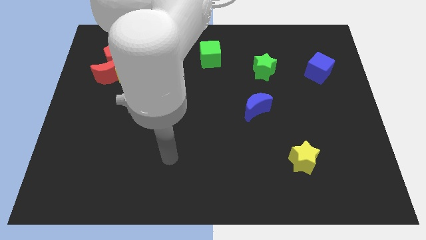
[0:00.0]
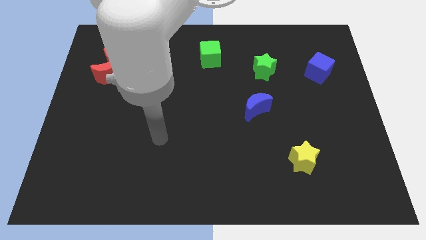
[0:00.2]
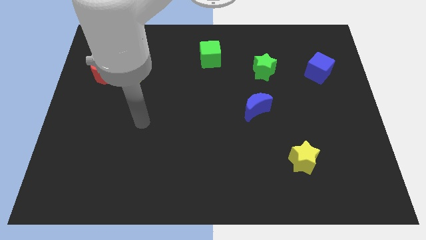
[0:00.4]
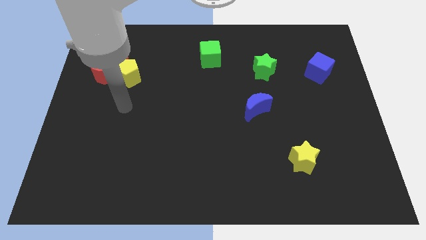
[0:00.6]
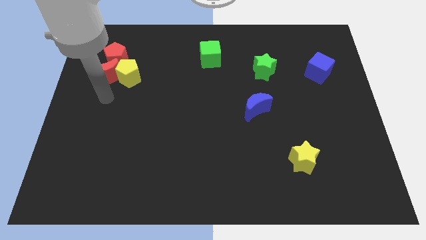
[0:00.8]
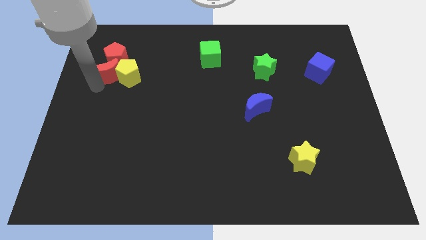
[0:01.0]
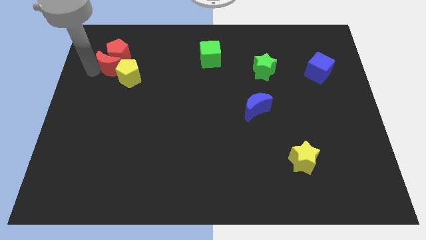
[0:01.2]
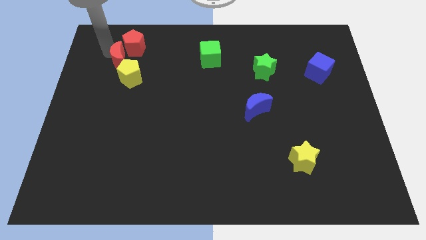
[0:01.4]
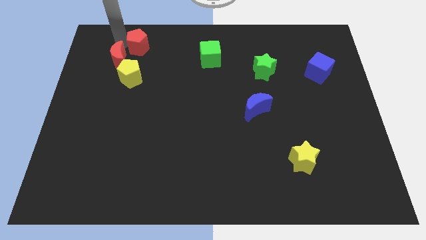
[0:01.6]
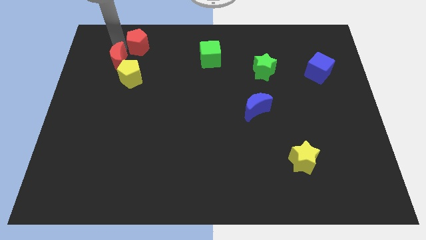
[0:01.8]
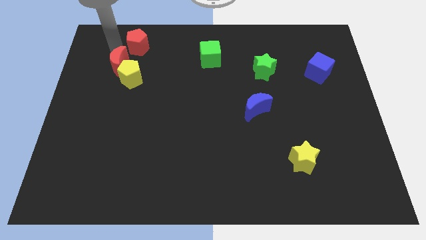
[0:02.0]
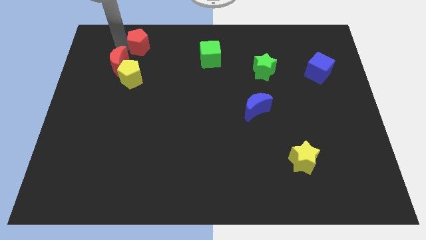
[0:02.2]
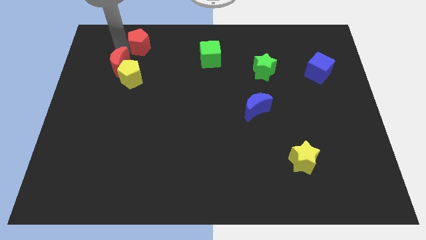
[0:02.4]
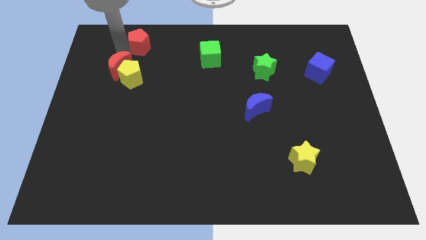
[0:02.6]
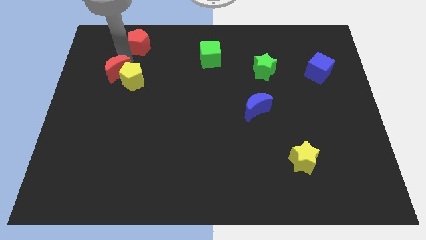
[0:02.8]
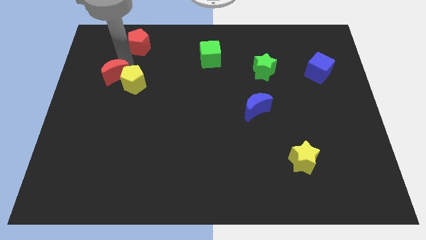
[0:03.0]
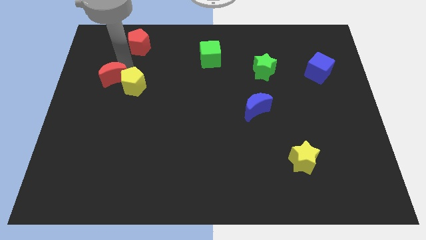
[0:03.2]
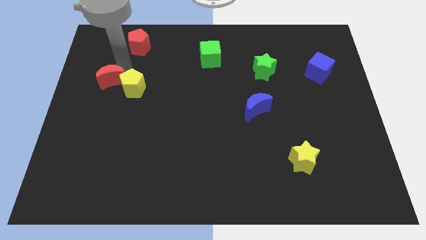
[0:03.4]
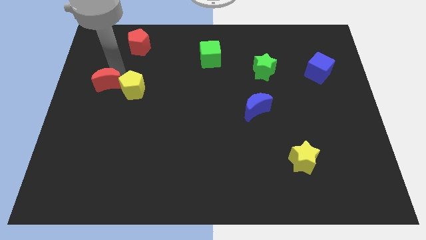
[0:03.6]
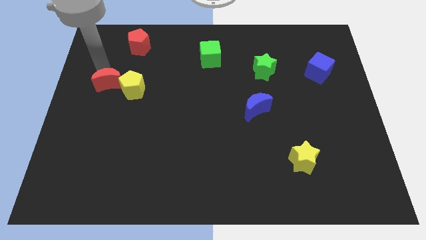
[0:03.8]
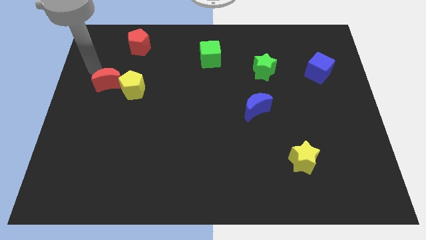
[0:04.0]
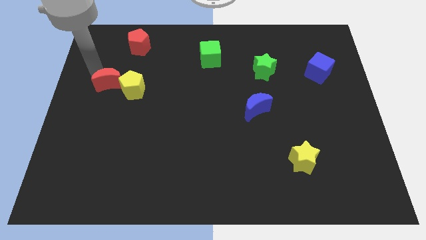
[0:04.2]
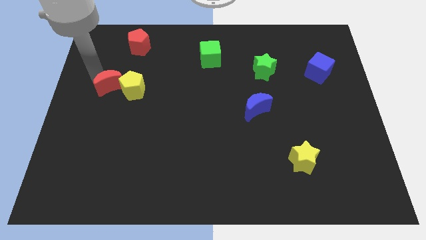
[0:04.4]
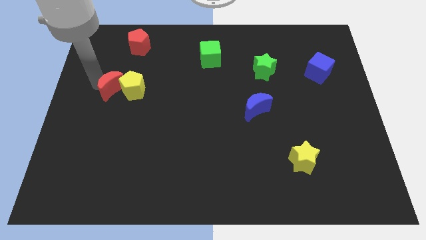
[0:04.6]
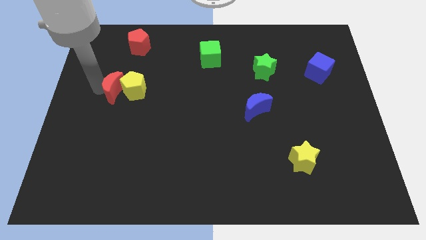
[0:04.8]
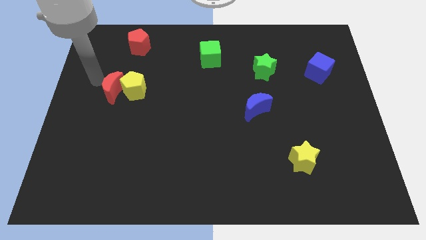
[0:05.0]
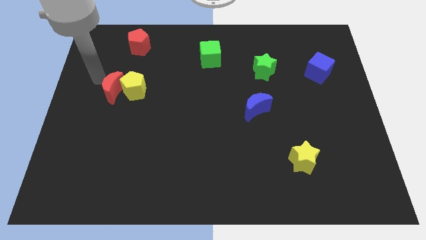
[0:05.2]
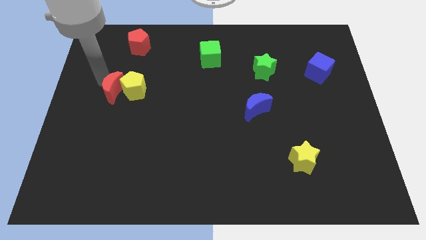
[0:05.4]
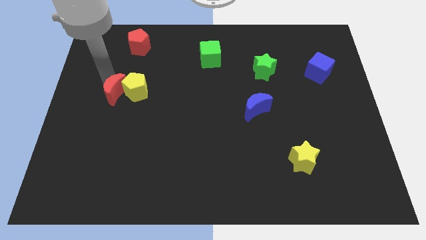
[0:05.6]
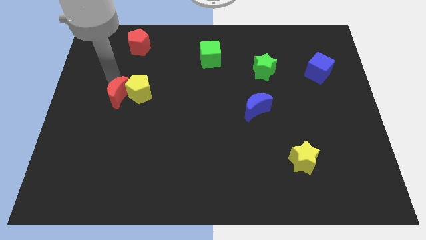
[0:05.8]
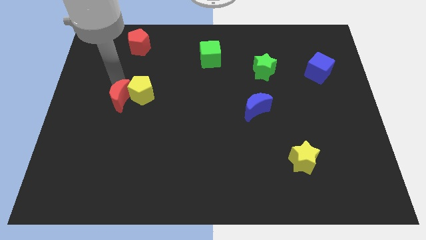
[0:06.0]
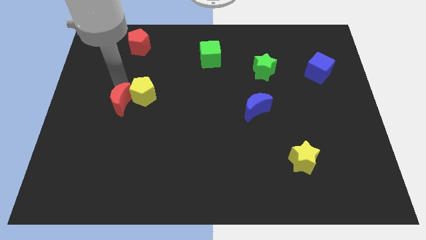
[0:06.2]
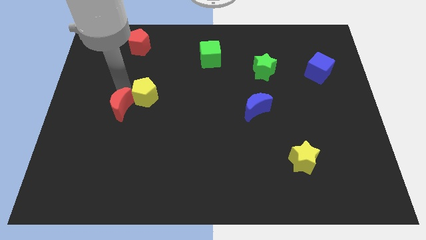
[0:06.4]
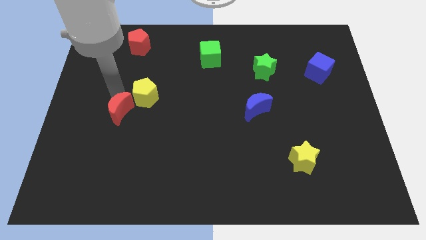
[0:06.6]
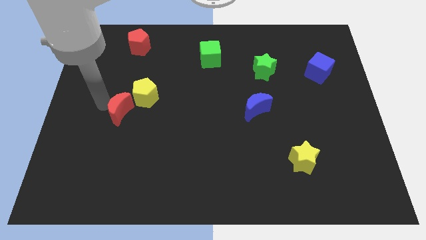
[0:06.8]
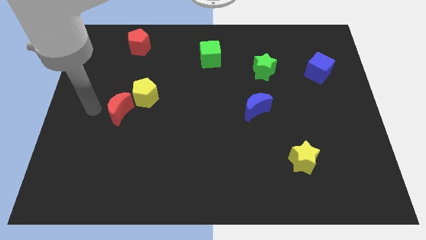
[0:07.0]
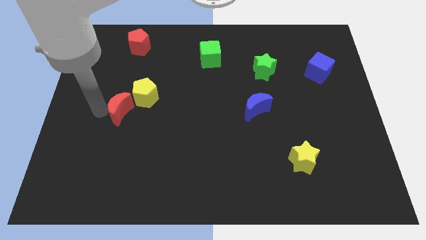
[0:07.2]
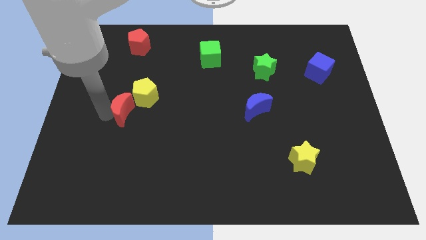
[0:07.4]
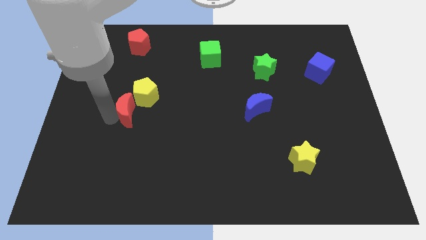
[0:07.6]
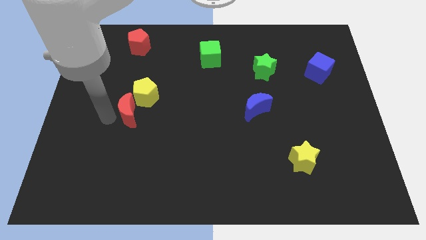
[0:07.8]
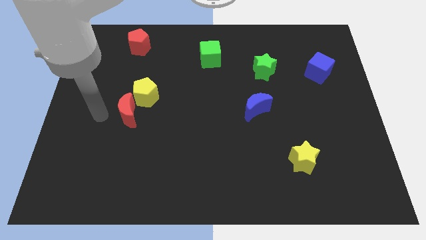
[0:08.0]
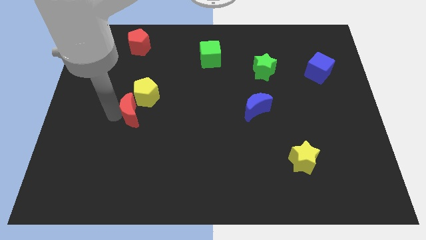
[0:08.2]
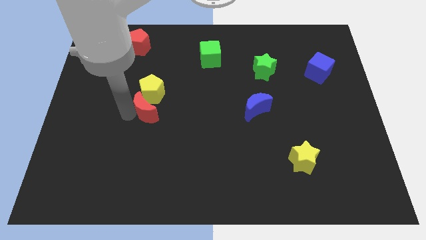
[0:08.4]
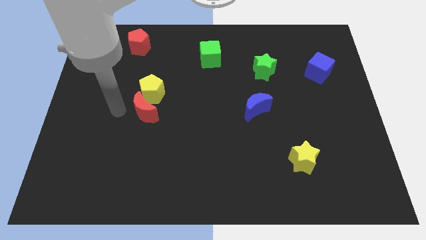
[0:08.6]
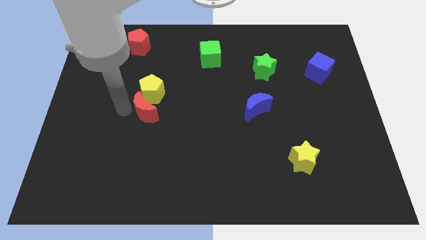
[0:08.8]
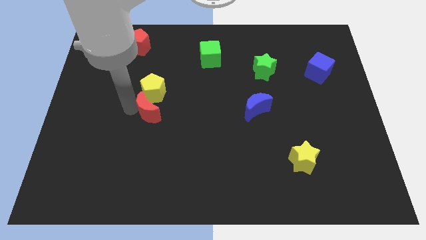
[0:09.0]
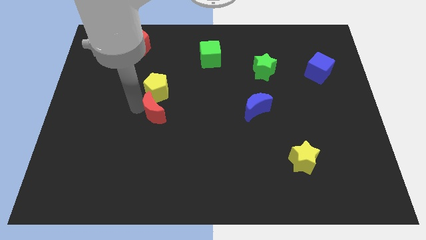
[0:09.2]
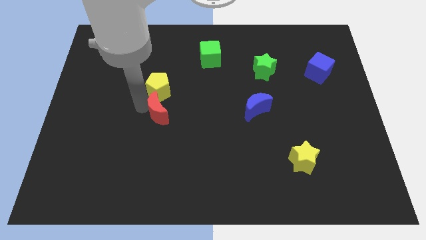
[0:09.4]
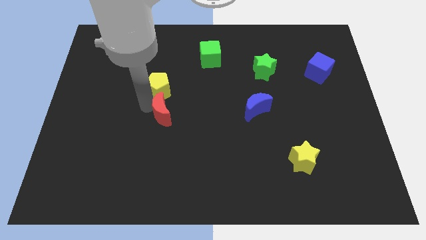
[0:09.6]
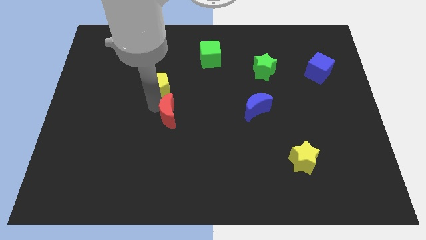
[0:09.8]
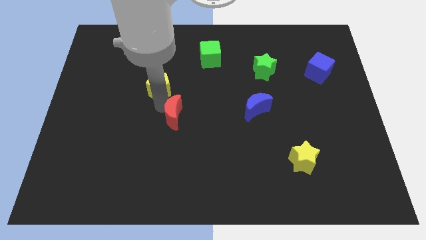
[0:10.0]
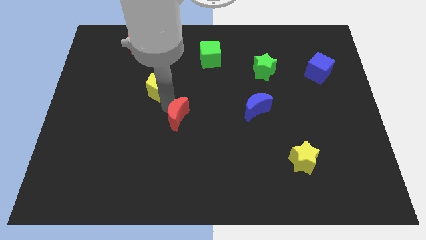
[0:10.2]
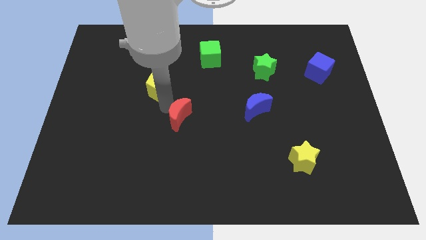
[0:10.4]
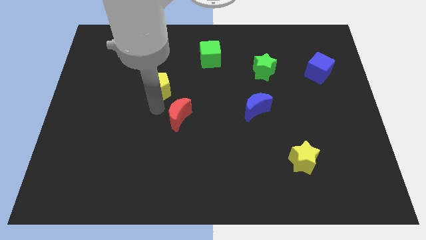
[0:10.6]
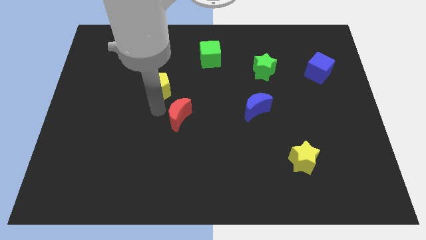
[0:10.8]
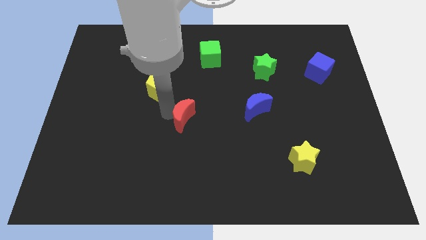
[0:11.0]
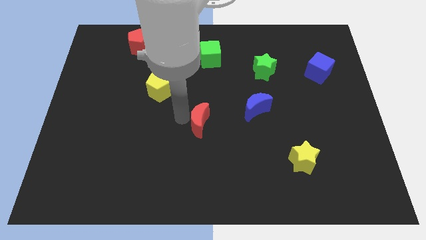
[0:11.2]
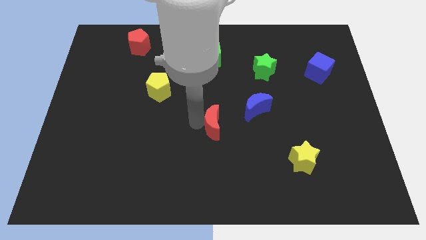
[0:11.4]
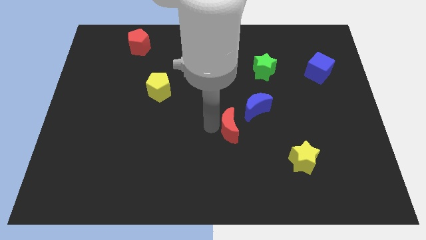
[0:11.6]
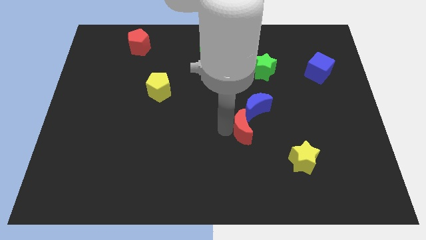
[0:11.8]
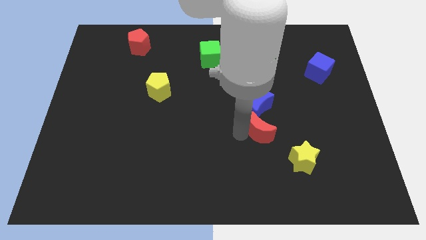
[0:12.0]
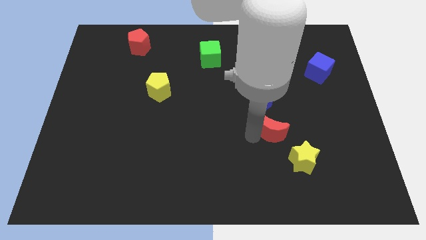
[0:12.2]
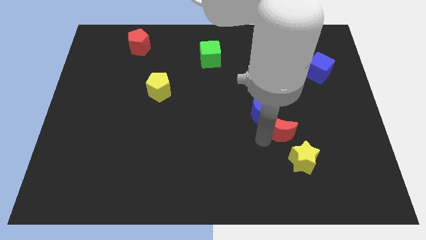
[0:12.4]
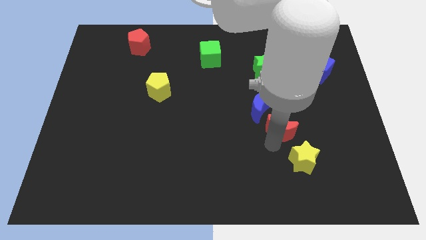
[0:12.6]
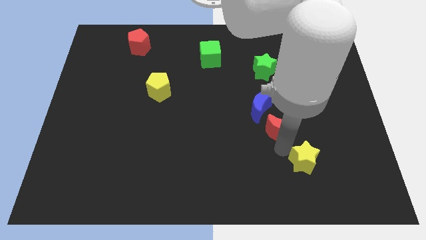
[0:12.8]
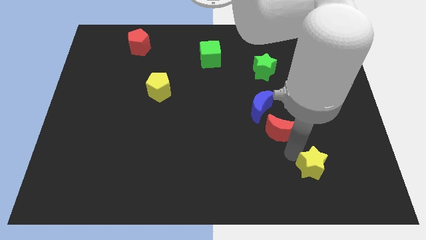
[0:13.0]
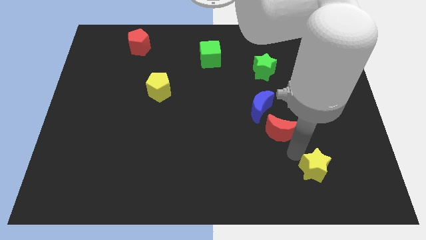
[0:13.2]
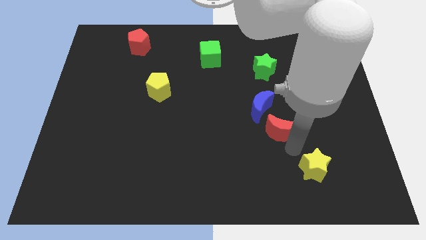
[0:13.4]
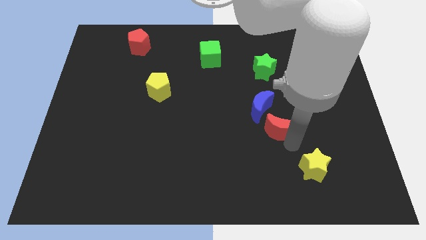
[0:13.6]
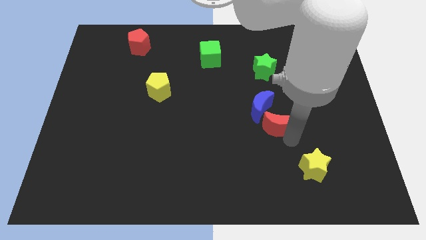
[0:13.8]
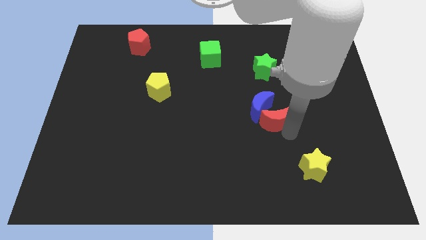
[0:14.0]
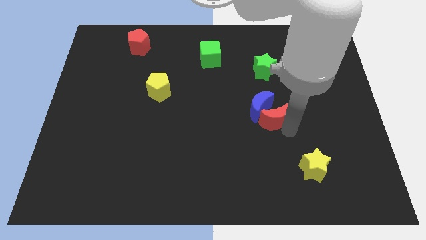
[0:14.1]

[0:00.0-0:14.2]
put the red moon to the bottom of the green star
